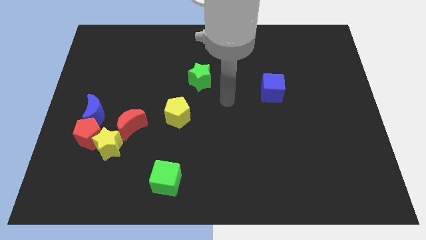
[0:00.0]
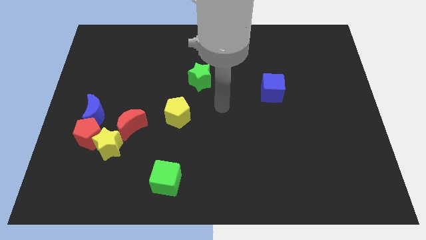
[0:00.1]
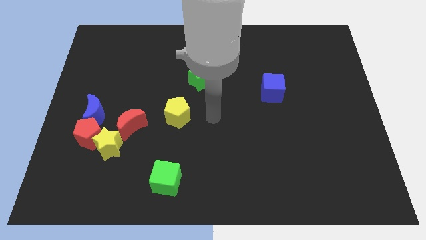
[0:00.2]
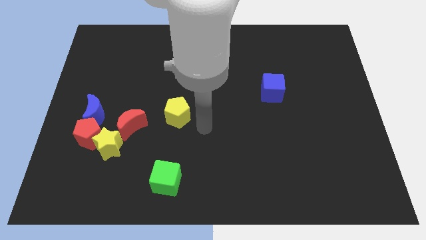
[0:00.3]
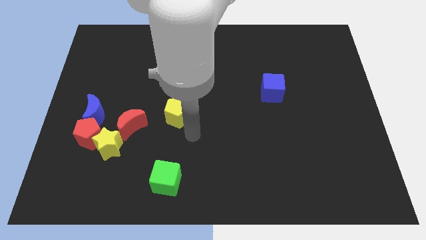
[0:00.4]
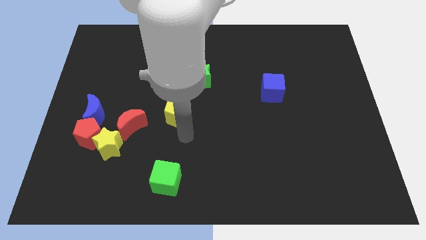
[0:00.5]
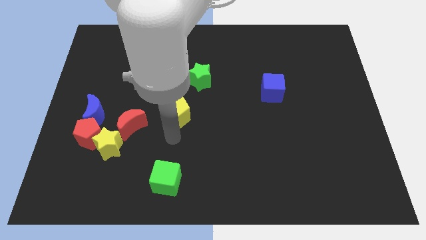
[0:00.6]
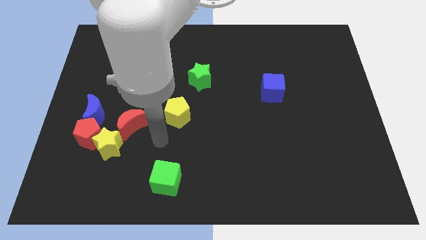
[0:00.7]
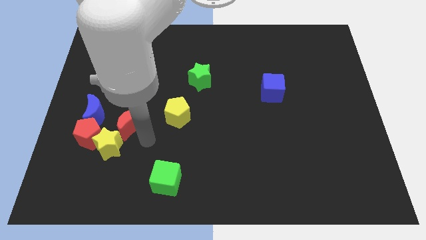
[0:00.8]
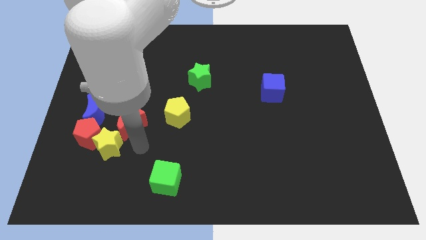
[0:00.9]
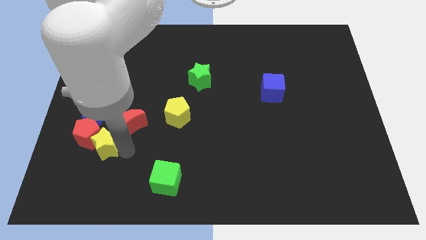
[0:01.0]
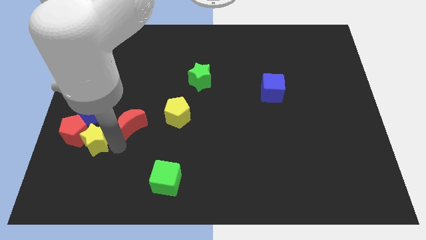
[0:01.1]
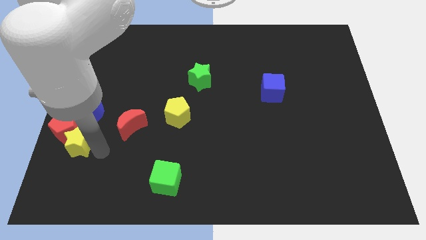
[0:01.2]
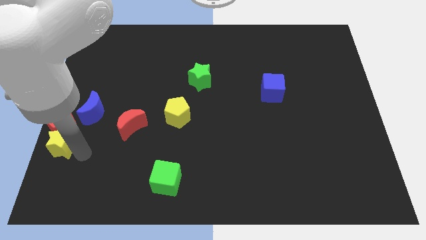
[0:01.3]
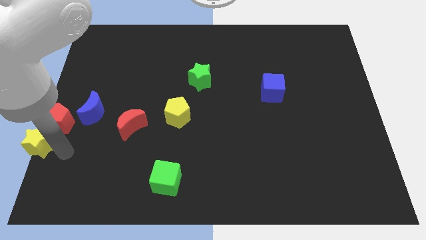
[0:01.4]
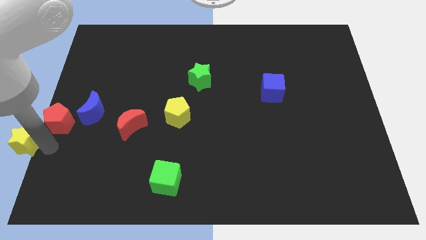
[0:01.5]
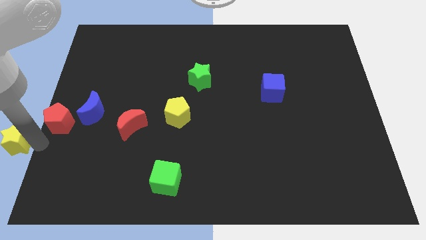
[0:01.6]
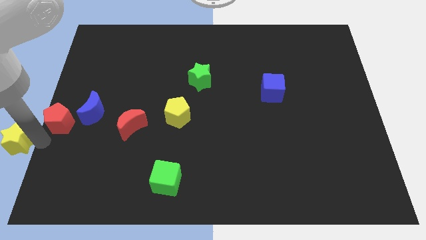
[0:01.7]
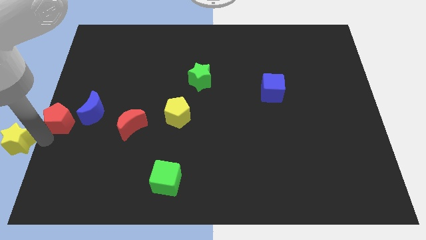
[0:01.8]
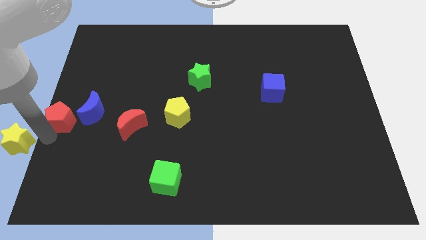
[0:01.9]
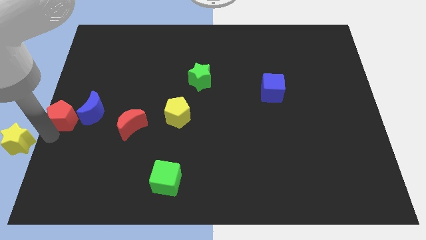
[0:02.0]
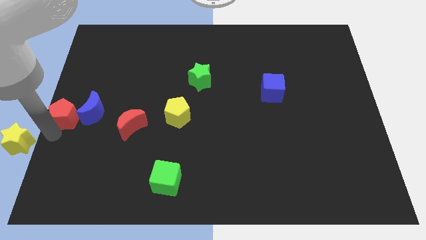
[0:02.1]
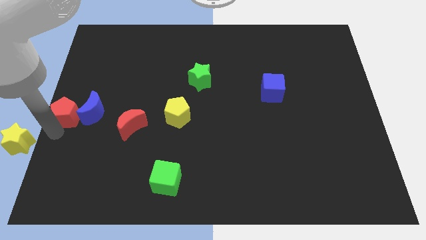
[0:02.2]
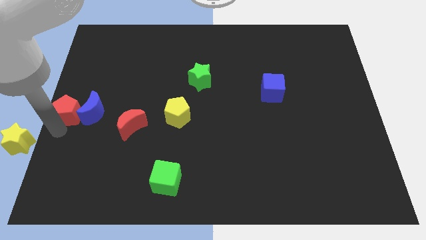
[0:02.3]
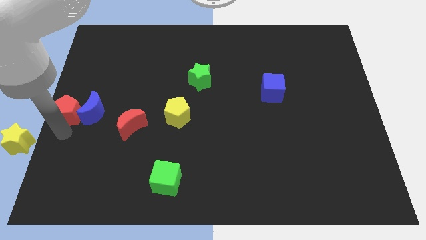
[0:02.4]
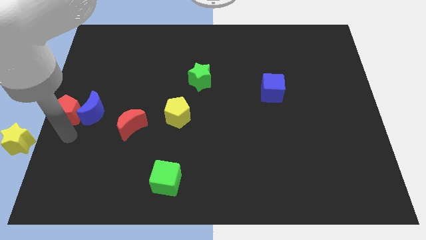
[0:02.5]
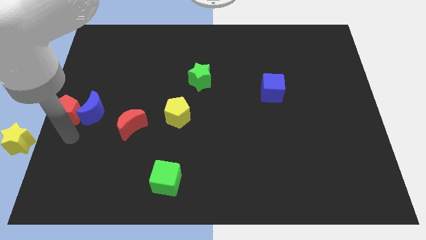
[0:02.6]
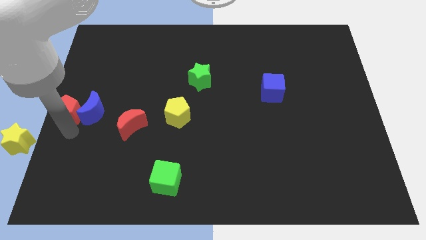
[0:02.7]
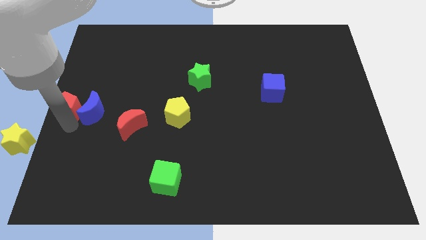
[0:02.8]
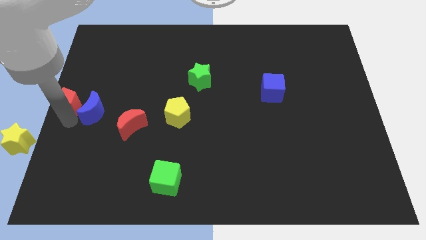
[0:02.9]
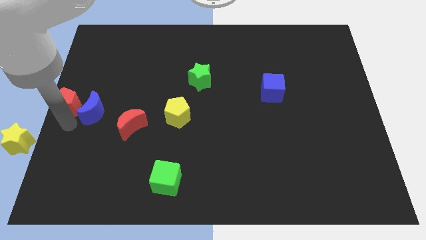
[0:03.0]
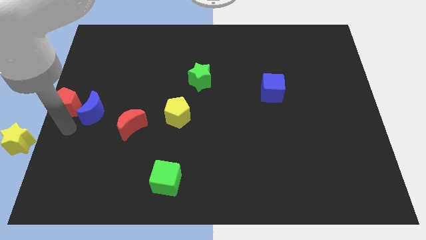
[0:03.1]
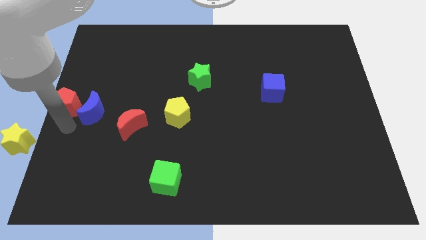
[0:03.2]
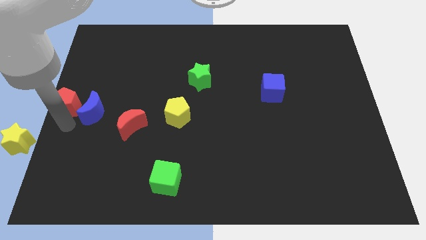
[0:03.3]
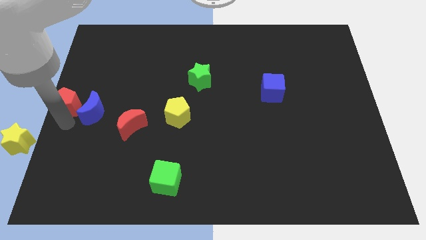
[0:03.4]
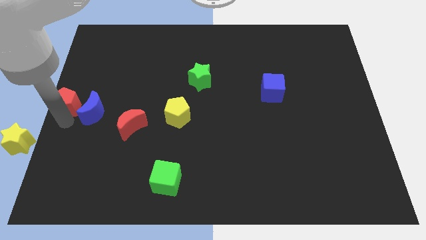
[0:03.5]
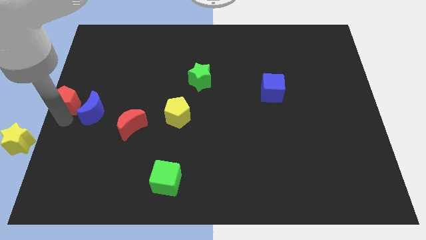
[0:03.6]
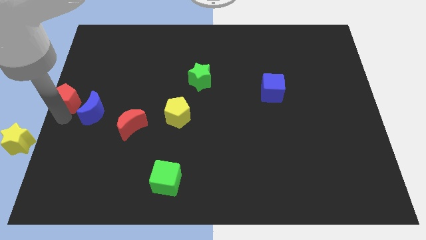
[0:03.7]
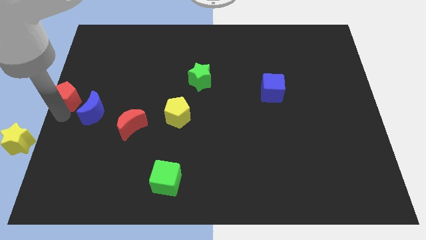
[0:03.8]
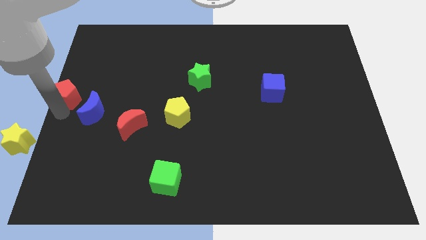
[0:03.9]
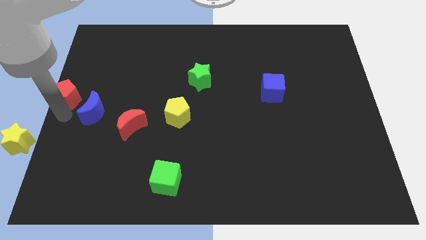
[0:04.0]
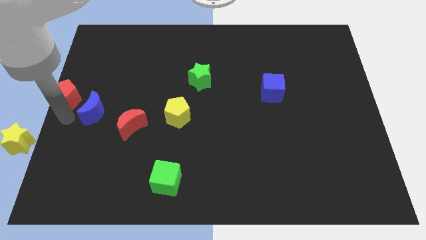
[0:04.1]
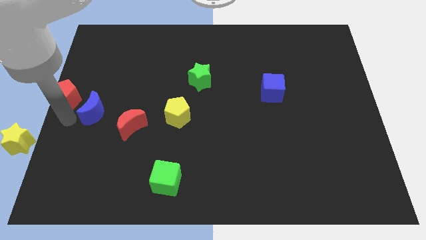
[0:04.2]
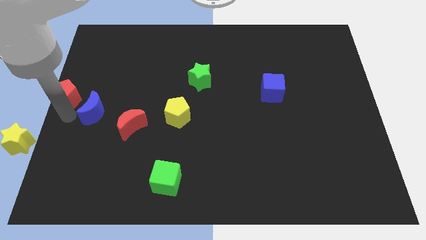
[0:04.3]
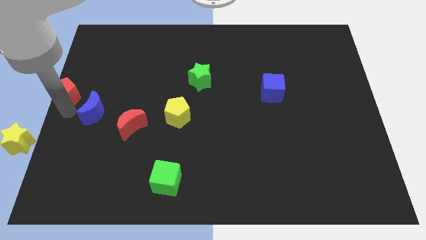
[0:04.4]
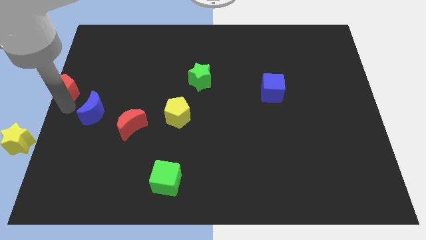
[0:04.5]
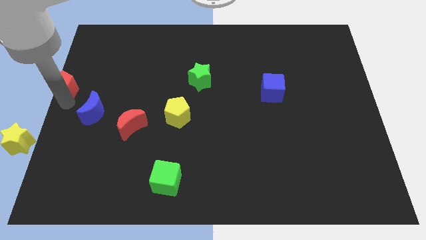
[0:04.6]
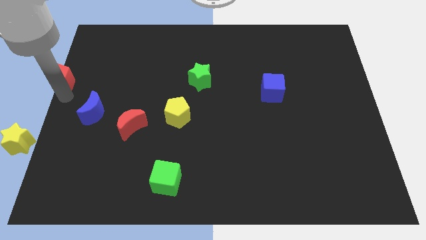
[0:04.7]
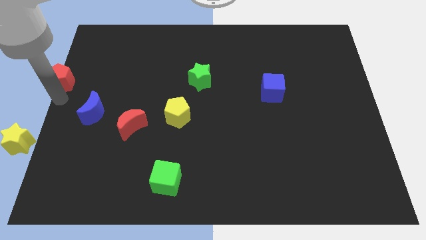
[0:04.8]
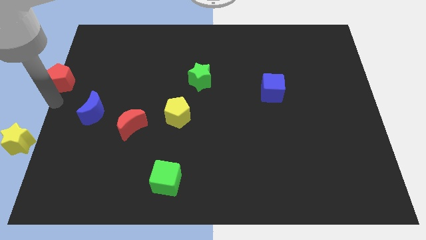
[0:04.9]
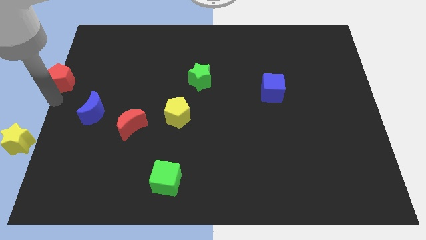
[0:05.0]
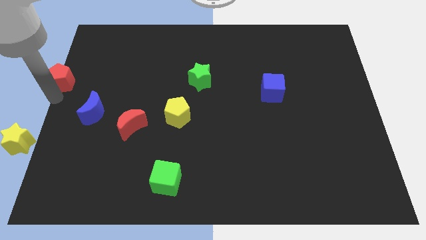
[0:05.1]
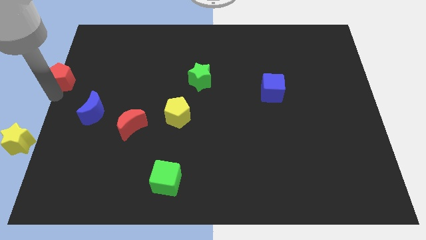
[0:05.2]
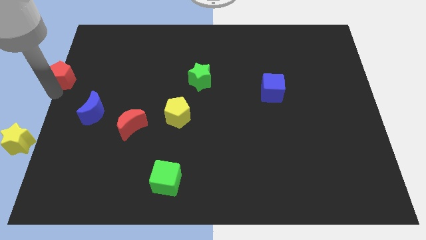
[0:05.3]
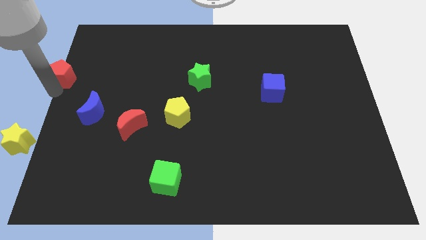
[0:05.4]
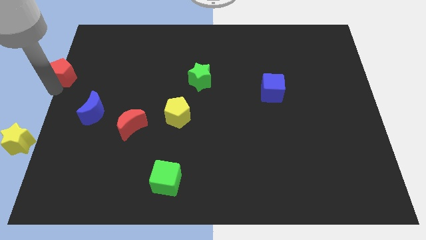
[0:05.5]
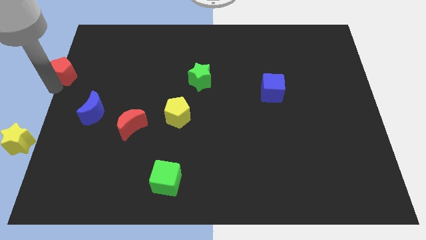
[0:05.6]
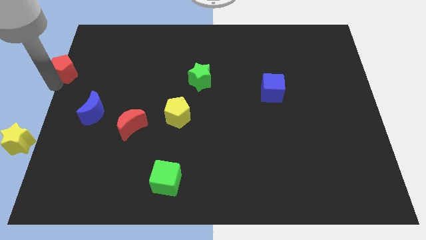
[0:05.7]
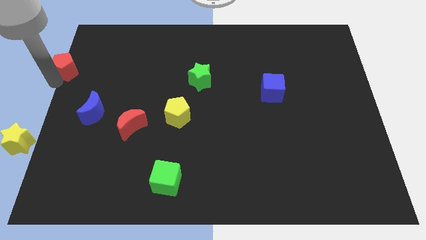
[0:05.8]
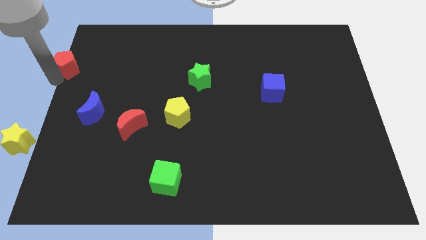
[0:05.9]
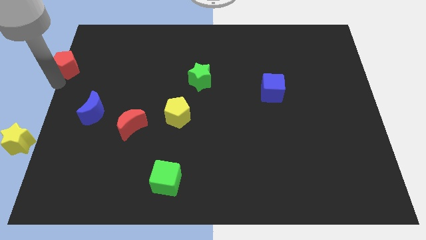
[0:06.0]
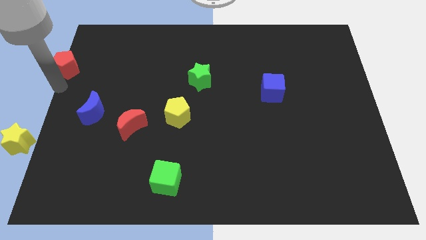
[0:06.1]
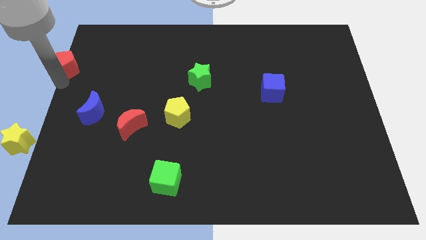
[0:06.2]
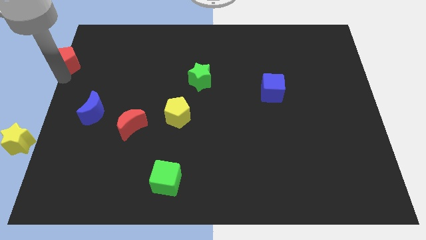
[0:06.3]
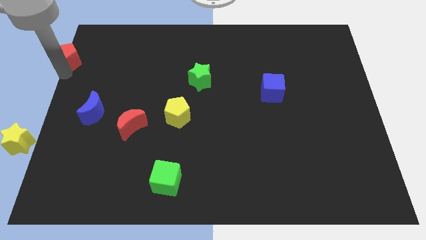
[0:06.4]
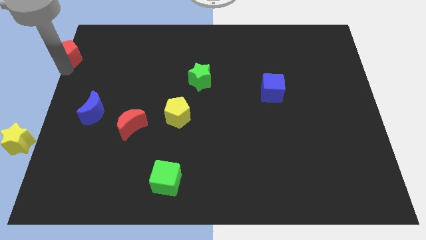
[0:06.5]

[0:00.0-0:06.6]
put the red pentagon to the top left
